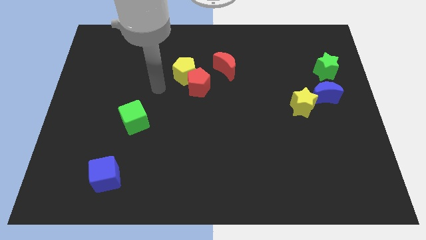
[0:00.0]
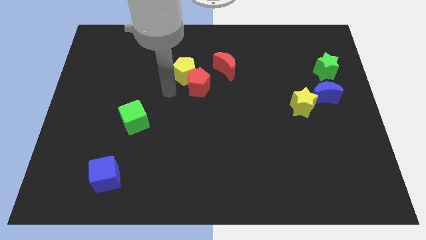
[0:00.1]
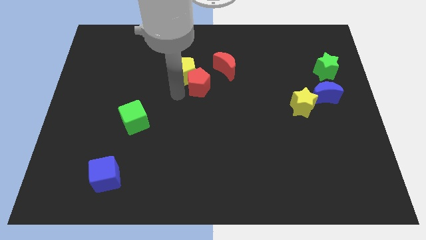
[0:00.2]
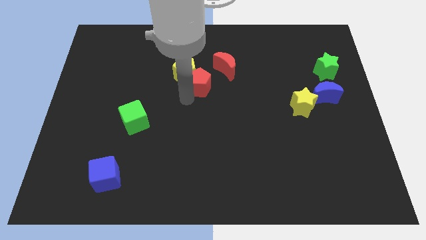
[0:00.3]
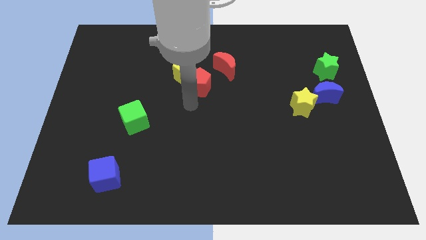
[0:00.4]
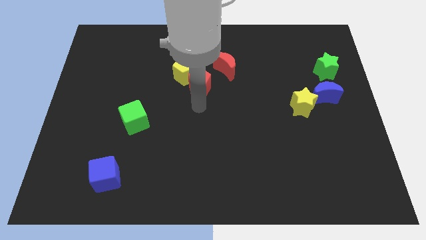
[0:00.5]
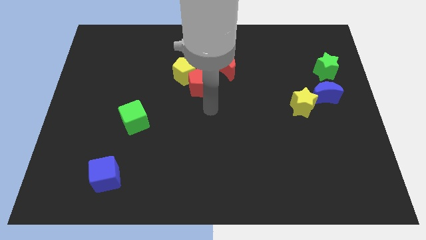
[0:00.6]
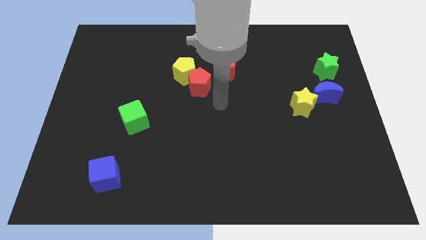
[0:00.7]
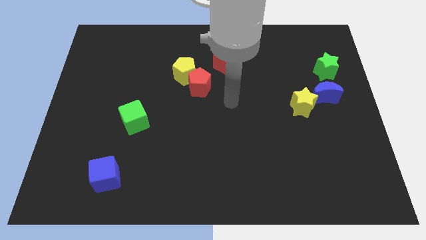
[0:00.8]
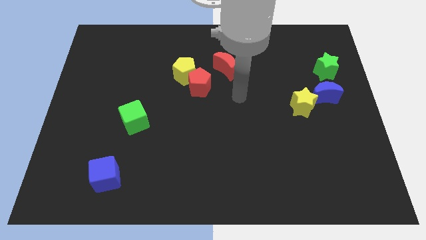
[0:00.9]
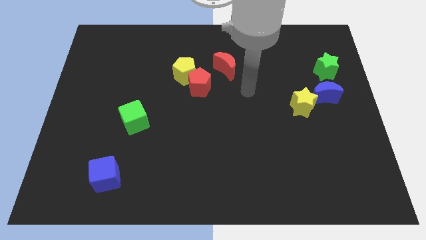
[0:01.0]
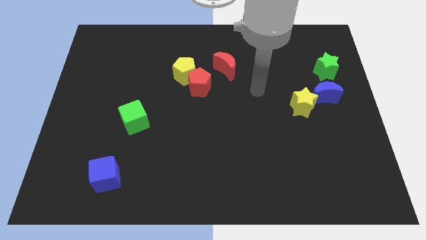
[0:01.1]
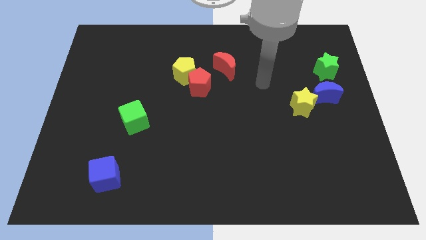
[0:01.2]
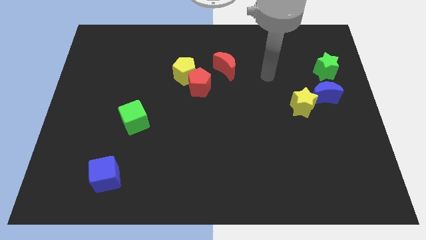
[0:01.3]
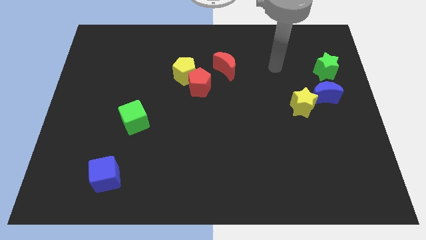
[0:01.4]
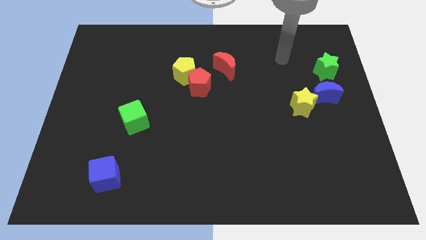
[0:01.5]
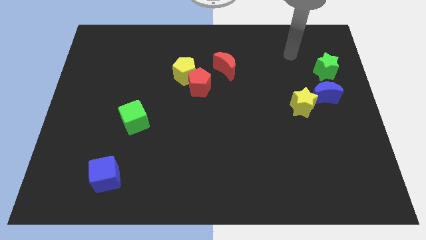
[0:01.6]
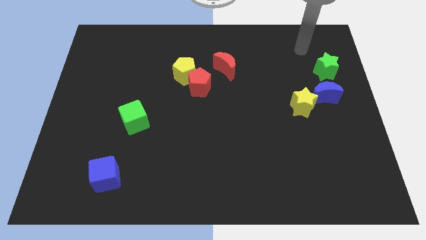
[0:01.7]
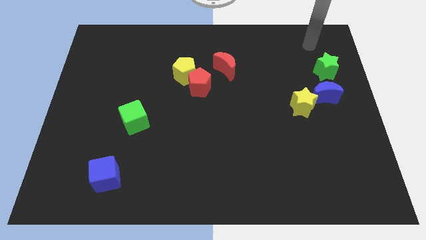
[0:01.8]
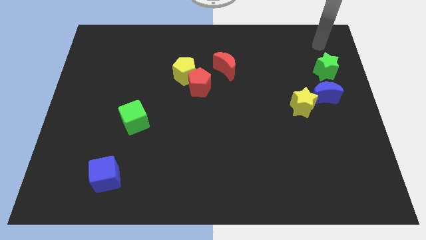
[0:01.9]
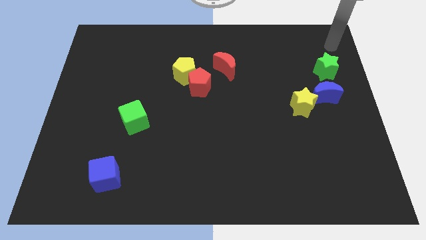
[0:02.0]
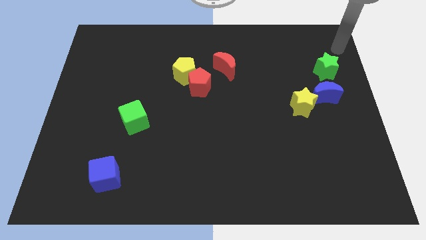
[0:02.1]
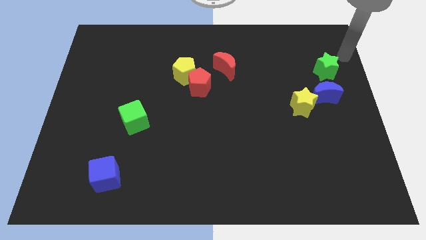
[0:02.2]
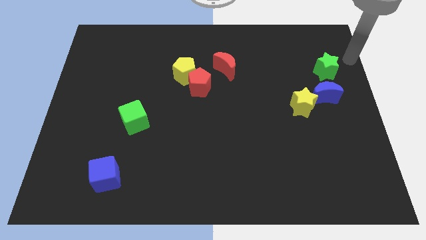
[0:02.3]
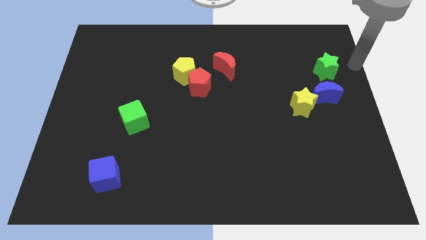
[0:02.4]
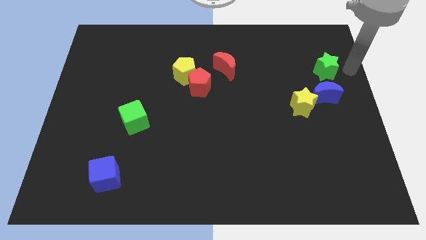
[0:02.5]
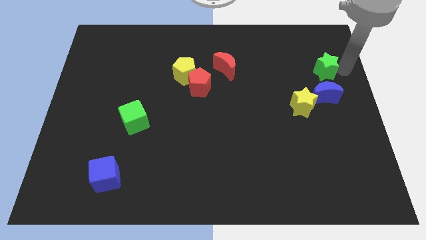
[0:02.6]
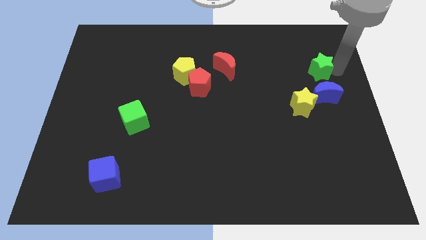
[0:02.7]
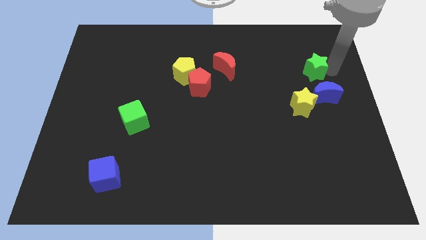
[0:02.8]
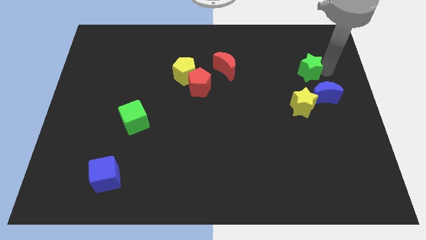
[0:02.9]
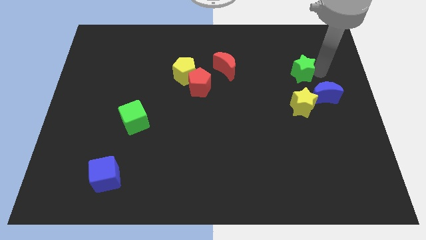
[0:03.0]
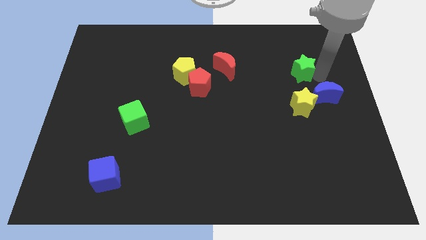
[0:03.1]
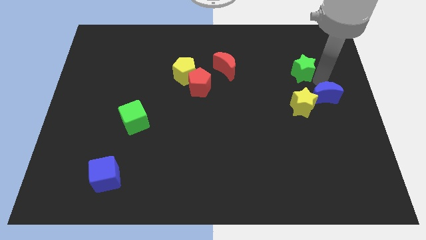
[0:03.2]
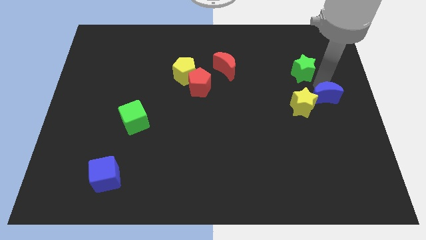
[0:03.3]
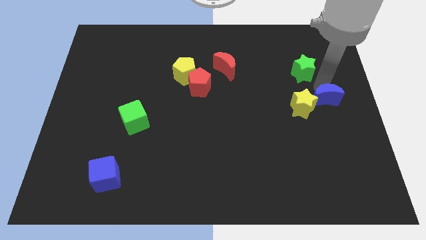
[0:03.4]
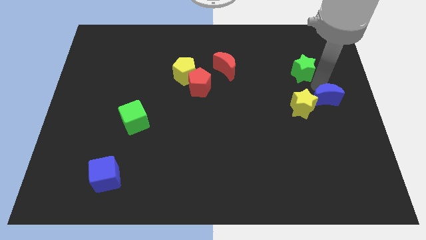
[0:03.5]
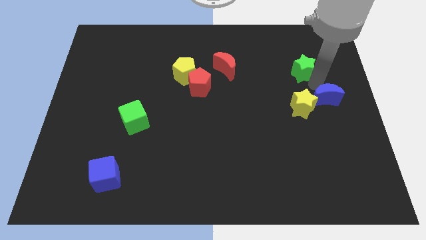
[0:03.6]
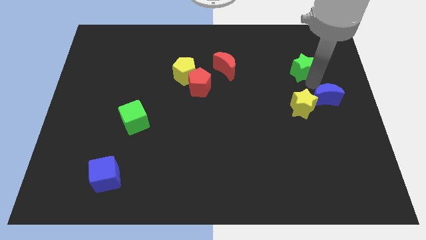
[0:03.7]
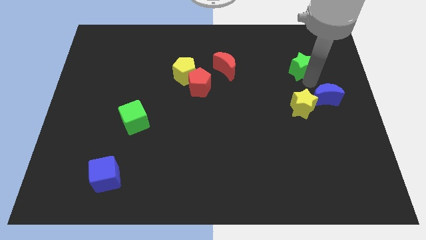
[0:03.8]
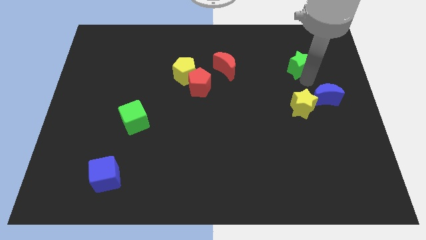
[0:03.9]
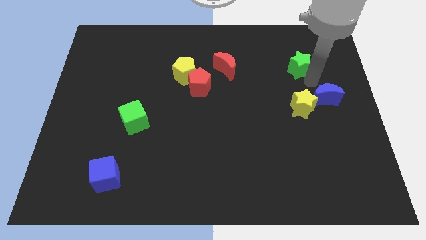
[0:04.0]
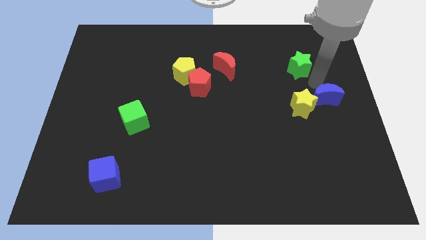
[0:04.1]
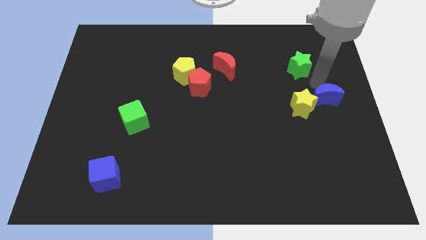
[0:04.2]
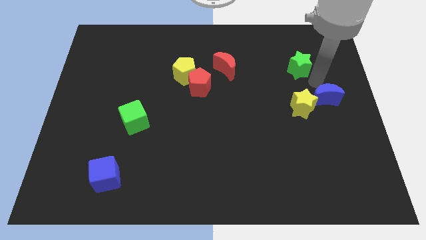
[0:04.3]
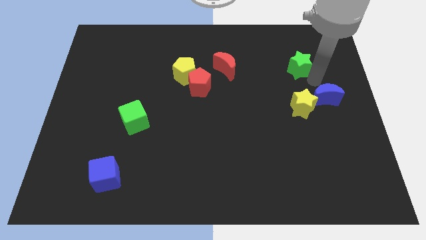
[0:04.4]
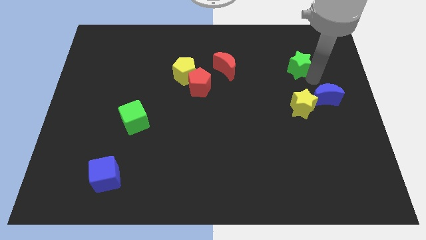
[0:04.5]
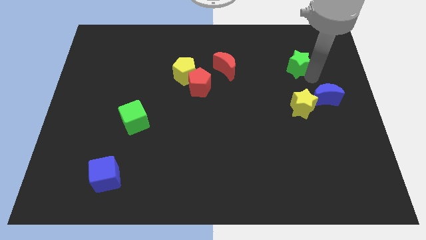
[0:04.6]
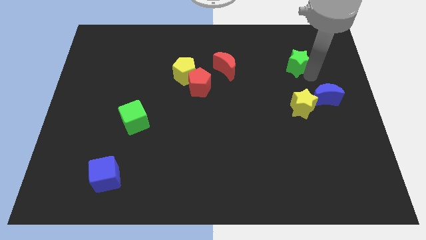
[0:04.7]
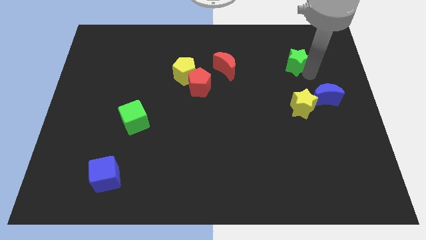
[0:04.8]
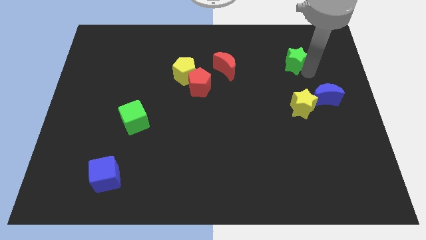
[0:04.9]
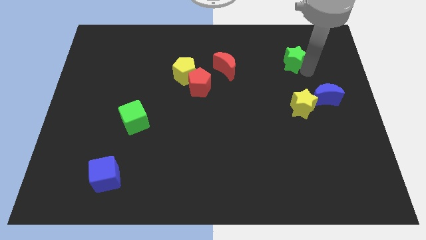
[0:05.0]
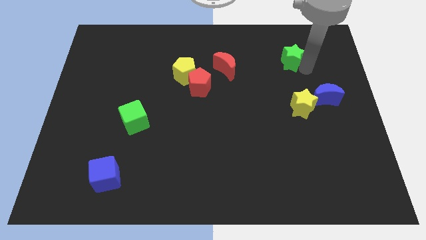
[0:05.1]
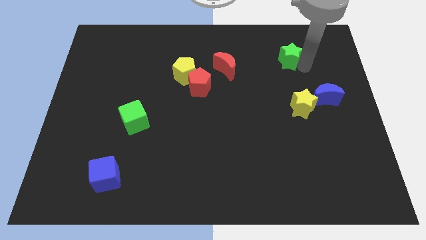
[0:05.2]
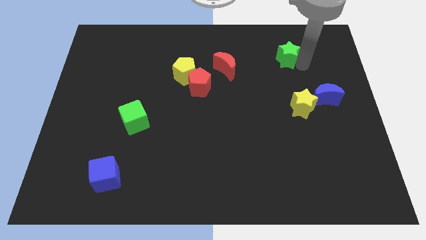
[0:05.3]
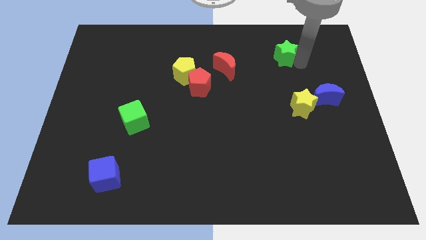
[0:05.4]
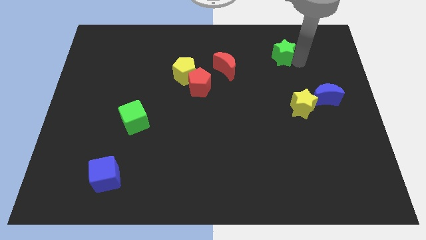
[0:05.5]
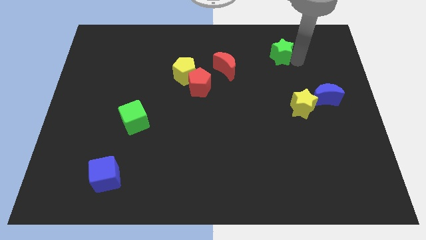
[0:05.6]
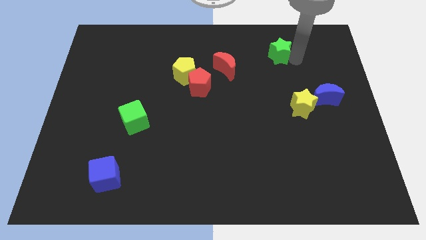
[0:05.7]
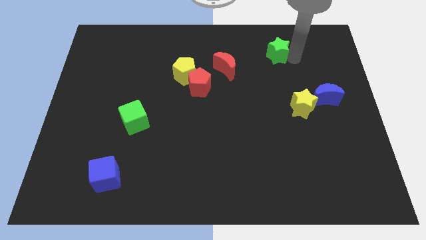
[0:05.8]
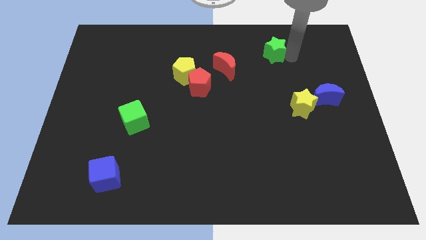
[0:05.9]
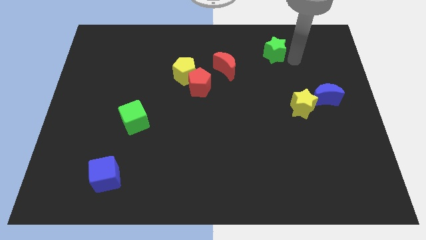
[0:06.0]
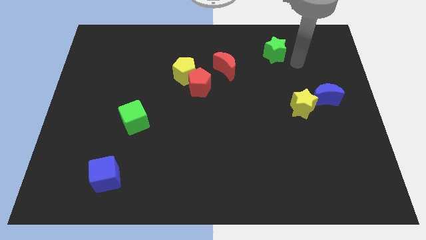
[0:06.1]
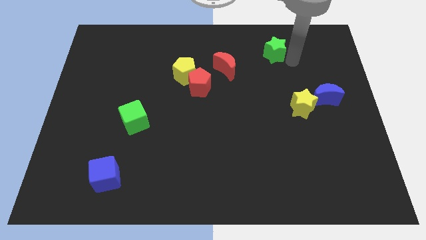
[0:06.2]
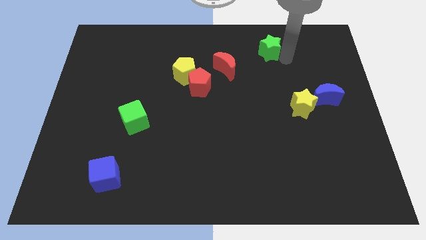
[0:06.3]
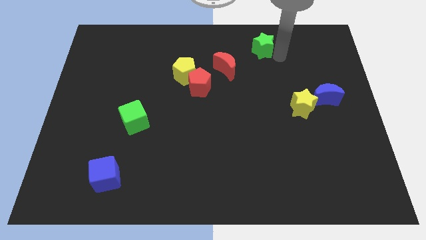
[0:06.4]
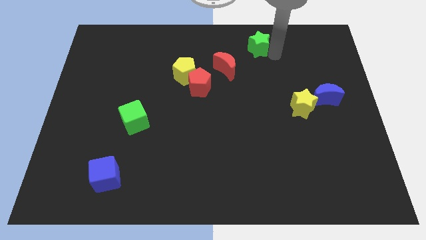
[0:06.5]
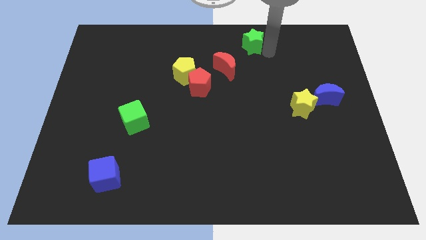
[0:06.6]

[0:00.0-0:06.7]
put the green star to the top side
